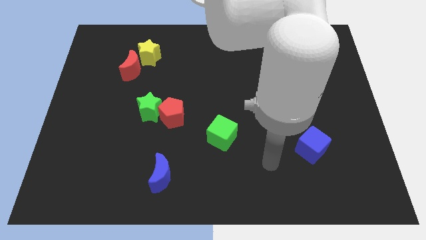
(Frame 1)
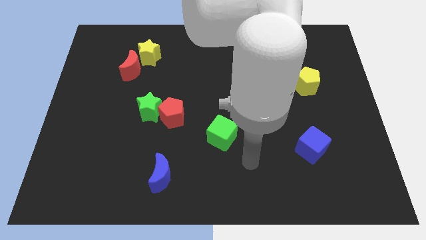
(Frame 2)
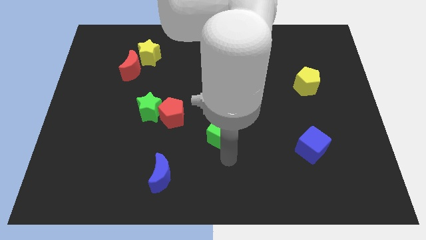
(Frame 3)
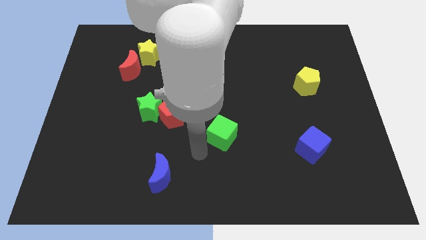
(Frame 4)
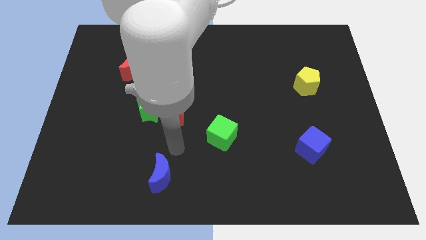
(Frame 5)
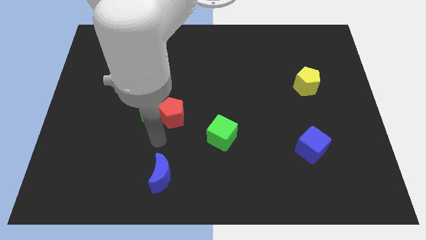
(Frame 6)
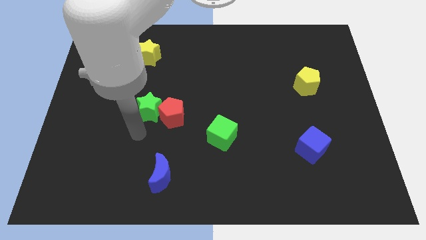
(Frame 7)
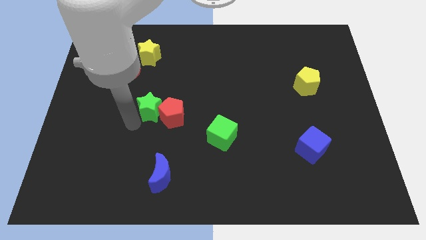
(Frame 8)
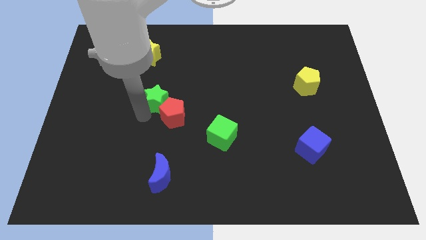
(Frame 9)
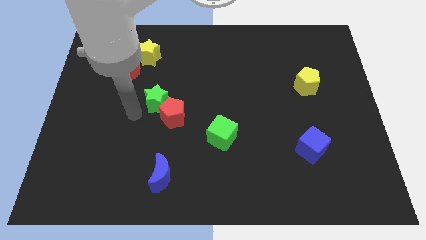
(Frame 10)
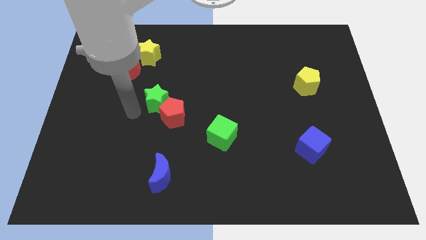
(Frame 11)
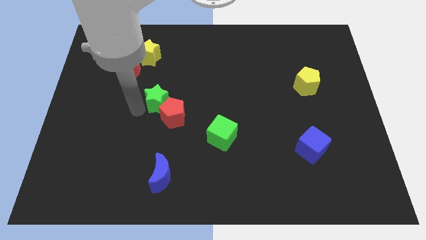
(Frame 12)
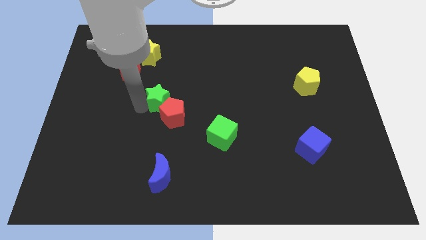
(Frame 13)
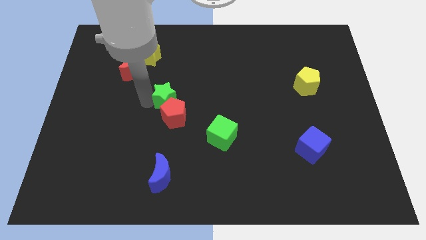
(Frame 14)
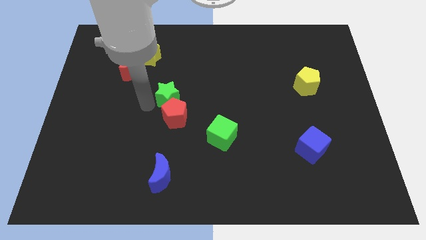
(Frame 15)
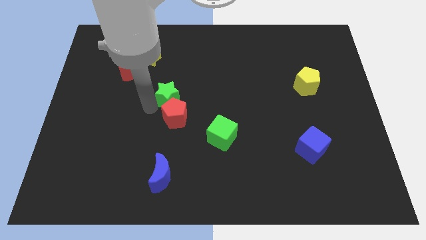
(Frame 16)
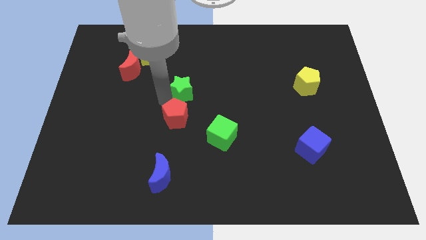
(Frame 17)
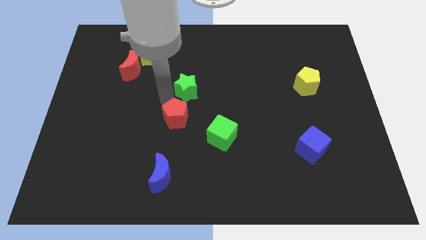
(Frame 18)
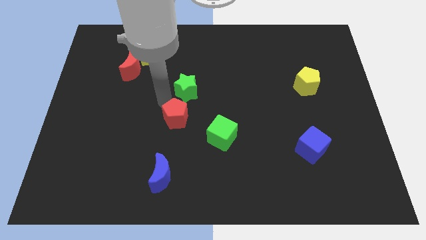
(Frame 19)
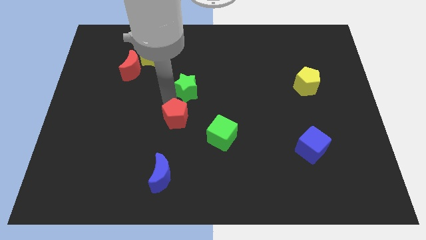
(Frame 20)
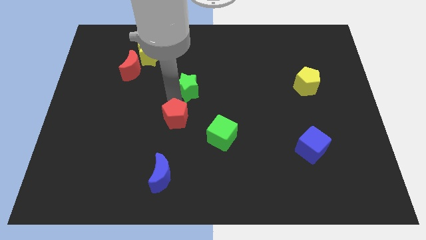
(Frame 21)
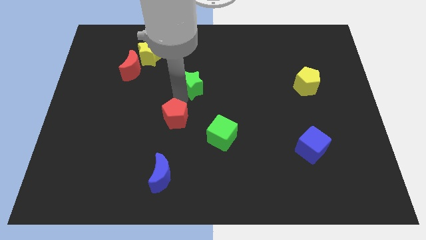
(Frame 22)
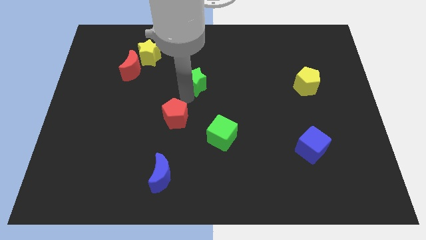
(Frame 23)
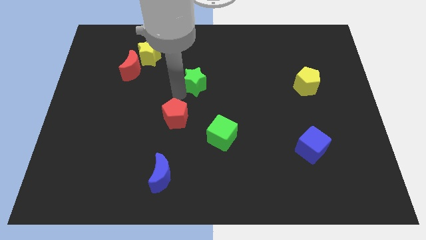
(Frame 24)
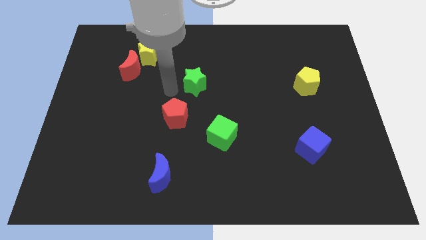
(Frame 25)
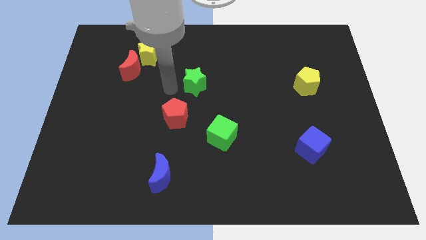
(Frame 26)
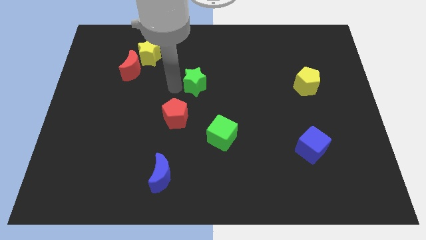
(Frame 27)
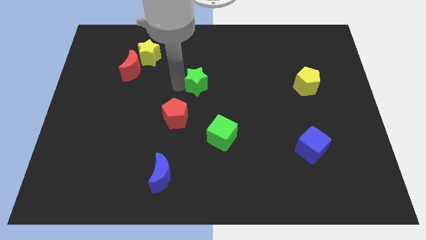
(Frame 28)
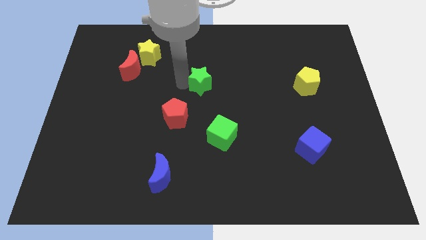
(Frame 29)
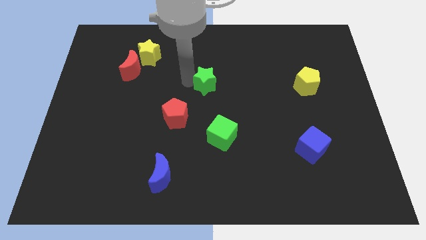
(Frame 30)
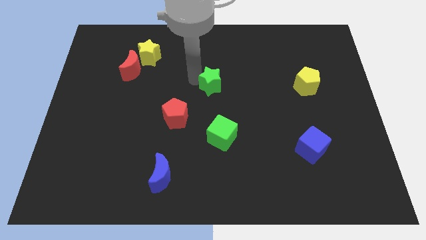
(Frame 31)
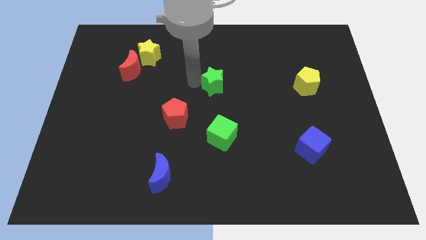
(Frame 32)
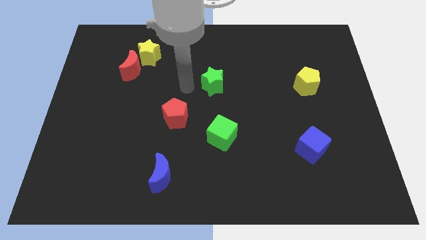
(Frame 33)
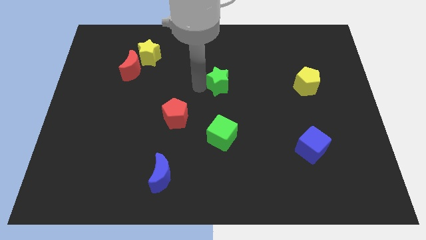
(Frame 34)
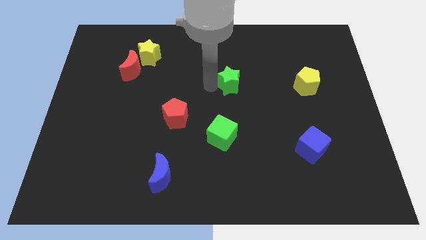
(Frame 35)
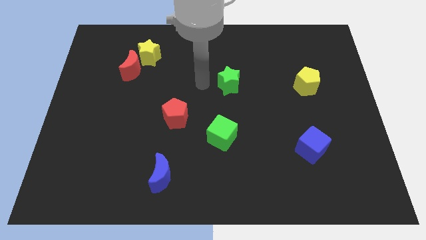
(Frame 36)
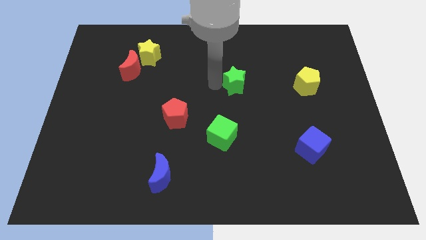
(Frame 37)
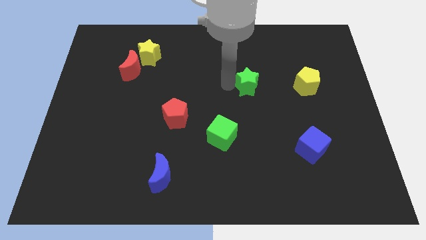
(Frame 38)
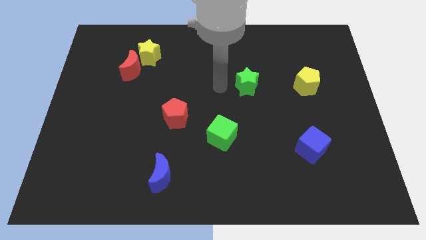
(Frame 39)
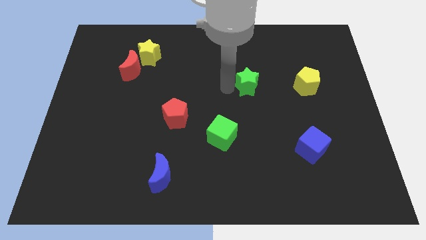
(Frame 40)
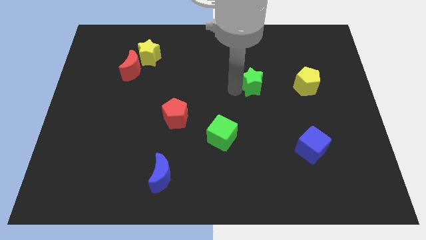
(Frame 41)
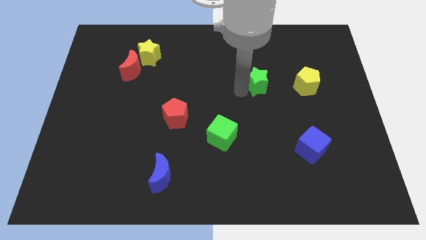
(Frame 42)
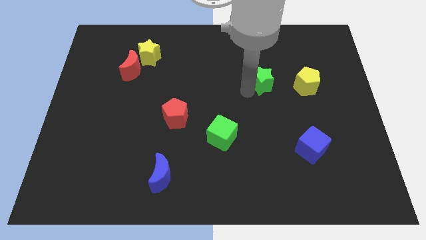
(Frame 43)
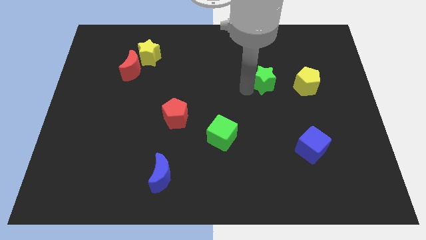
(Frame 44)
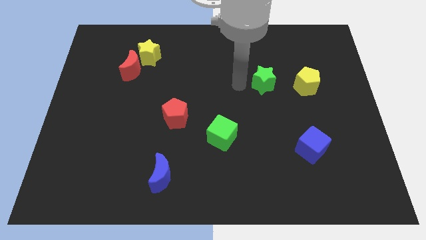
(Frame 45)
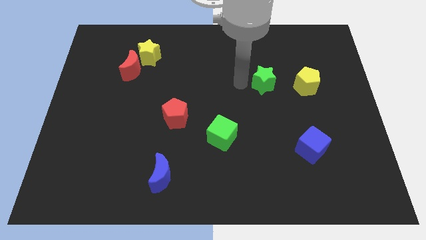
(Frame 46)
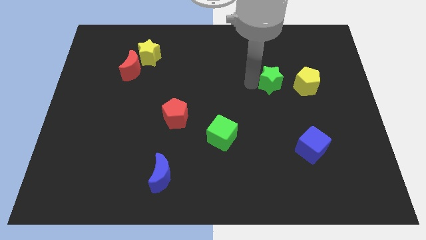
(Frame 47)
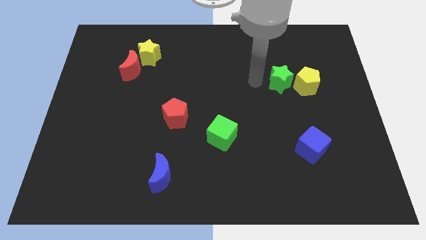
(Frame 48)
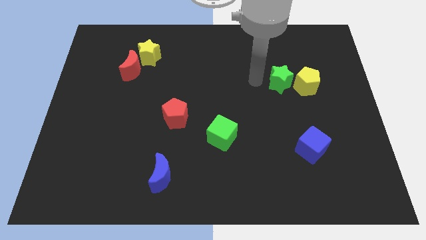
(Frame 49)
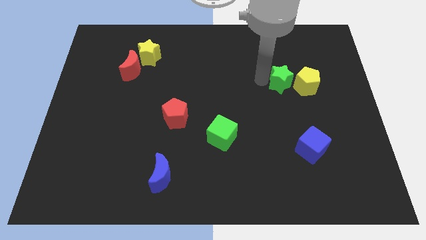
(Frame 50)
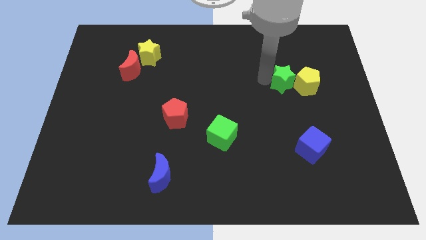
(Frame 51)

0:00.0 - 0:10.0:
push the green star to the yellow pentagon

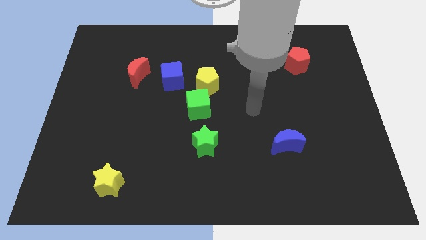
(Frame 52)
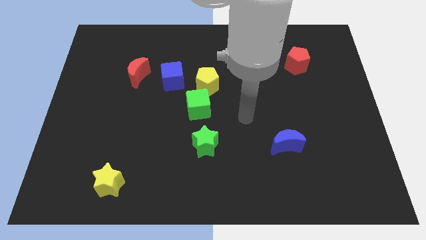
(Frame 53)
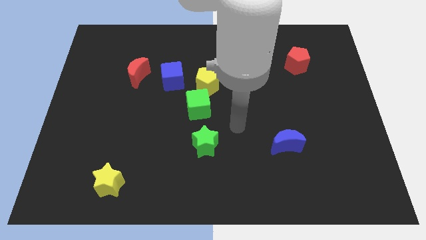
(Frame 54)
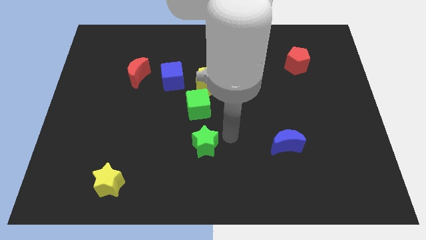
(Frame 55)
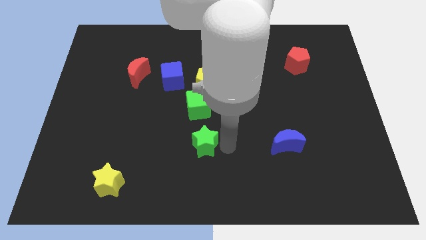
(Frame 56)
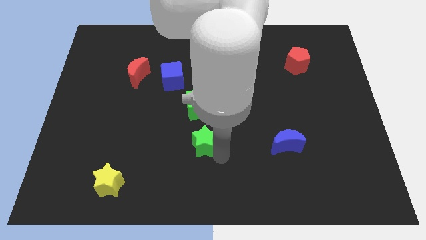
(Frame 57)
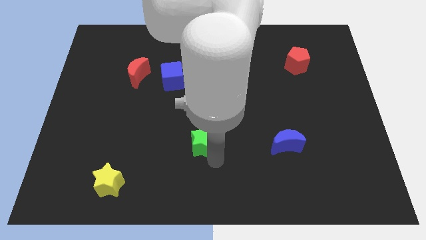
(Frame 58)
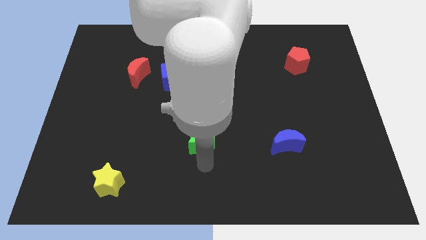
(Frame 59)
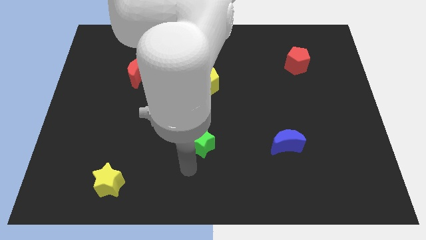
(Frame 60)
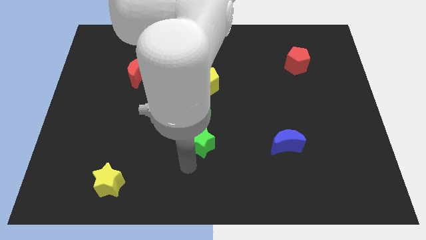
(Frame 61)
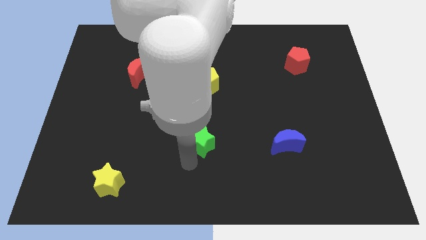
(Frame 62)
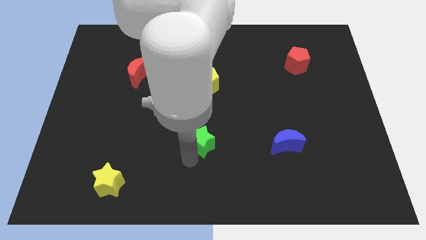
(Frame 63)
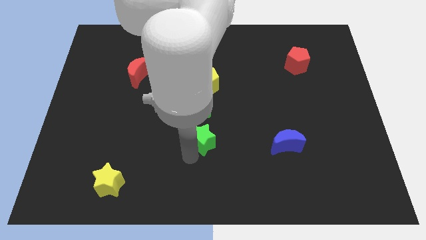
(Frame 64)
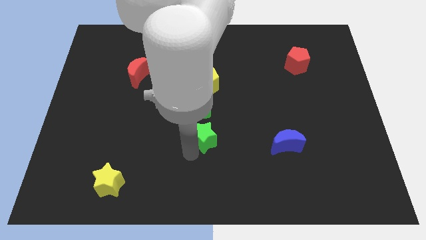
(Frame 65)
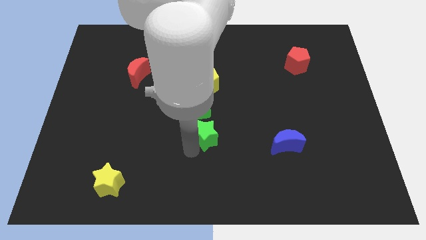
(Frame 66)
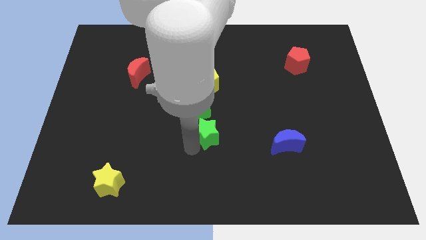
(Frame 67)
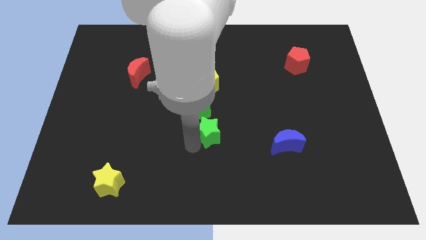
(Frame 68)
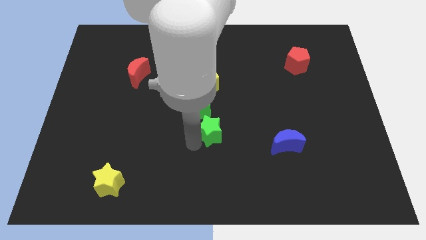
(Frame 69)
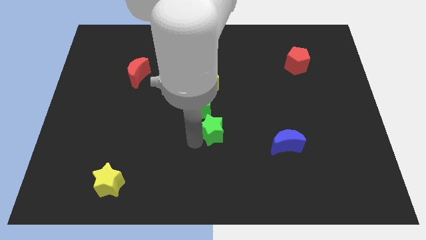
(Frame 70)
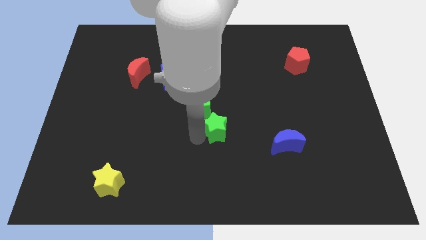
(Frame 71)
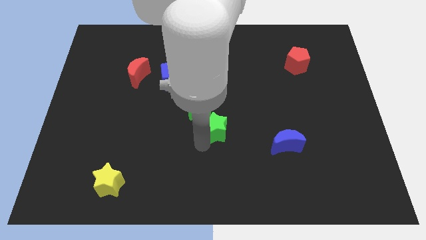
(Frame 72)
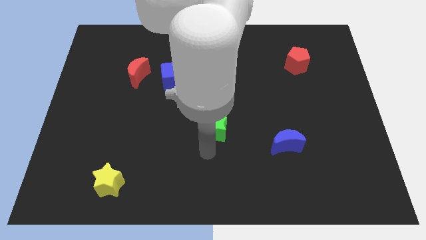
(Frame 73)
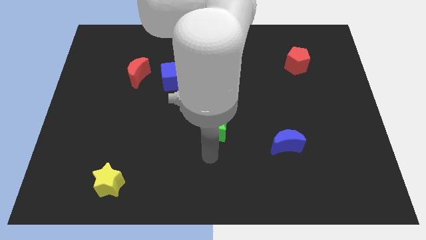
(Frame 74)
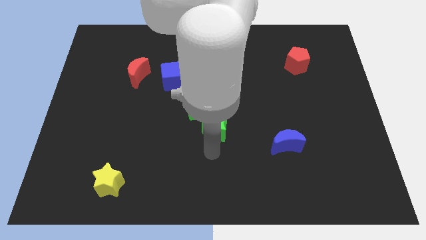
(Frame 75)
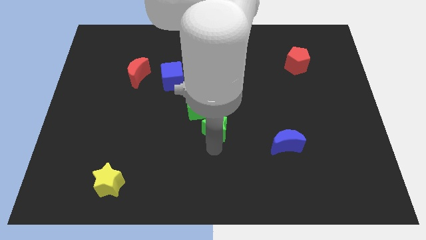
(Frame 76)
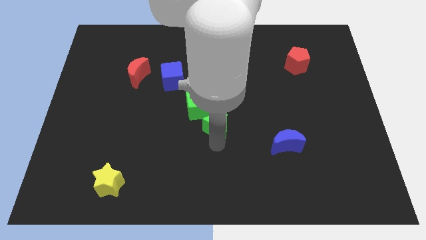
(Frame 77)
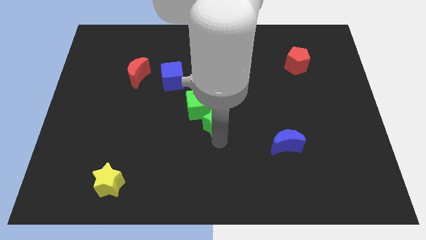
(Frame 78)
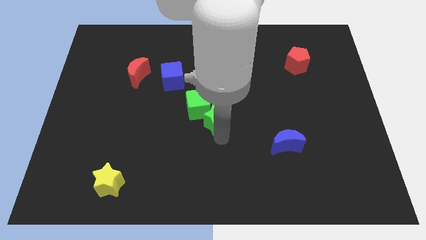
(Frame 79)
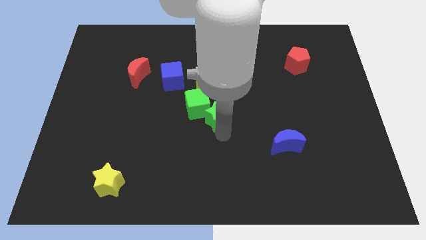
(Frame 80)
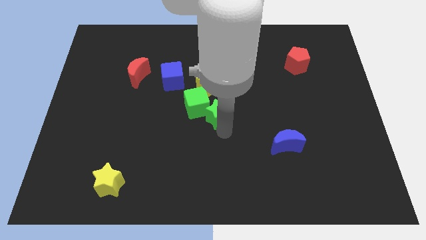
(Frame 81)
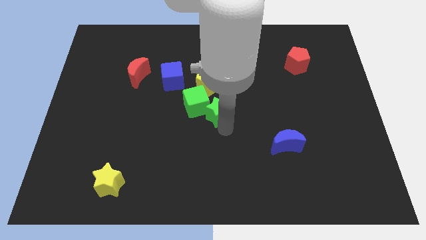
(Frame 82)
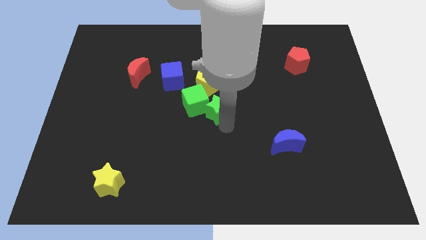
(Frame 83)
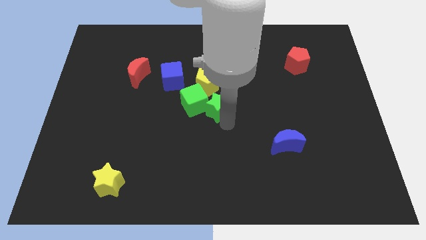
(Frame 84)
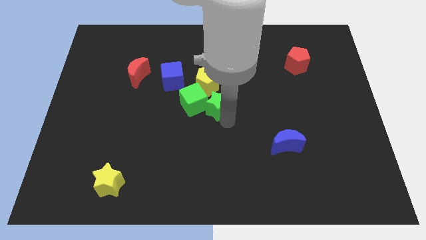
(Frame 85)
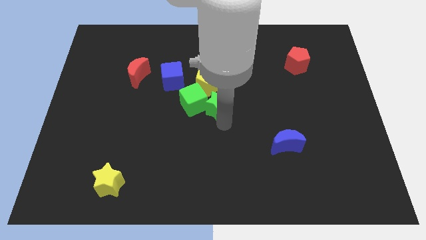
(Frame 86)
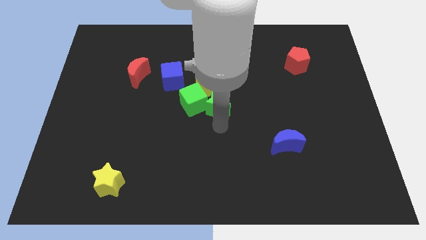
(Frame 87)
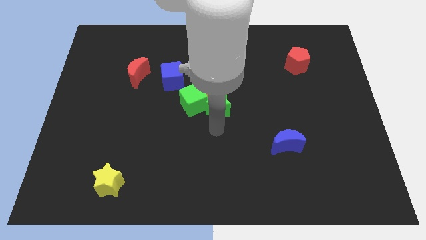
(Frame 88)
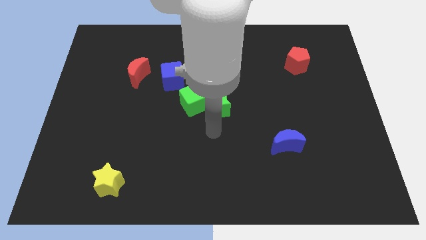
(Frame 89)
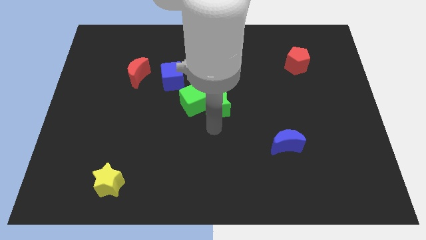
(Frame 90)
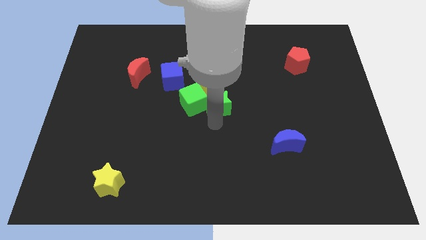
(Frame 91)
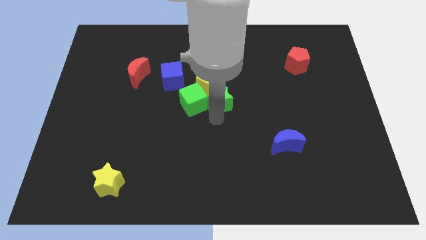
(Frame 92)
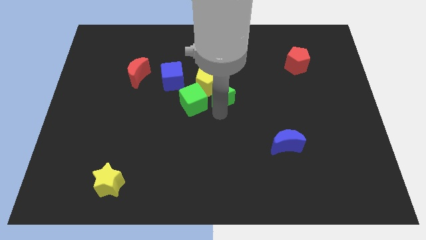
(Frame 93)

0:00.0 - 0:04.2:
move the green star towards the yellow pentagon
